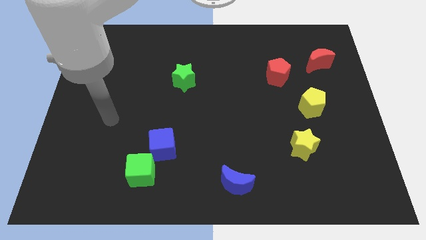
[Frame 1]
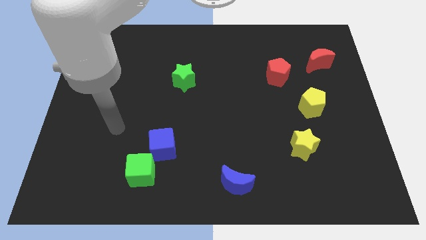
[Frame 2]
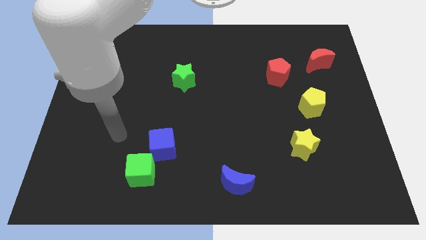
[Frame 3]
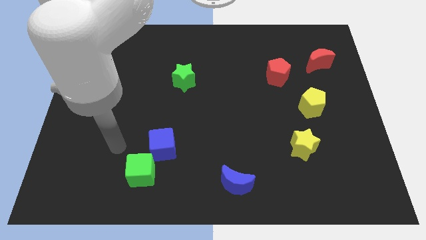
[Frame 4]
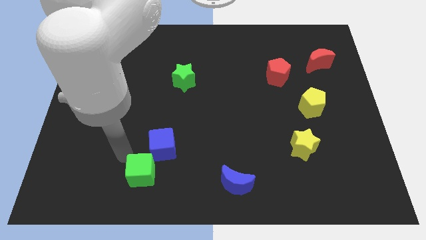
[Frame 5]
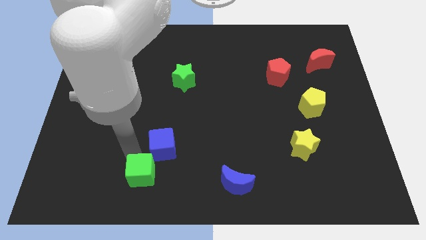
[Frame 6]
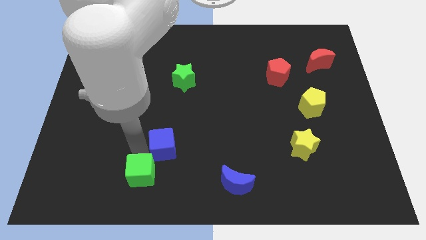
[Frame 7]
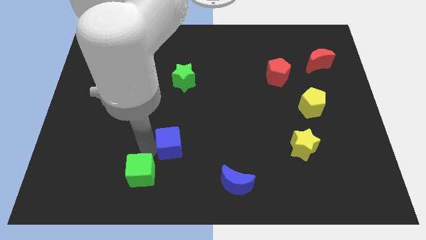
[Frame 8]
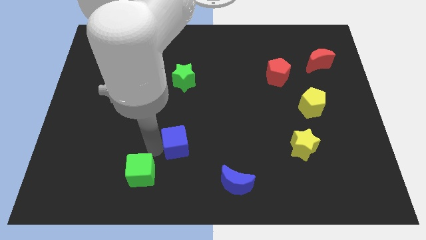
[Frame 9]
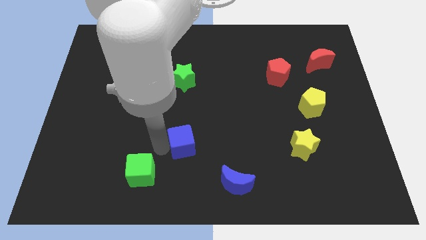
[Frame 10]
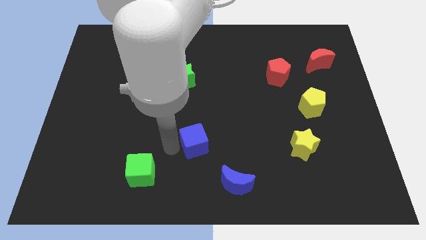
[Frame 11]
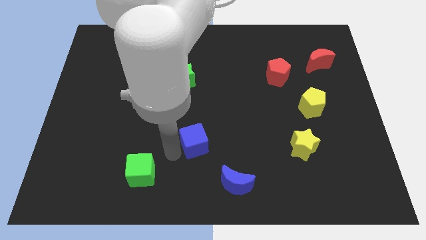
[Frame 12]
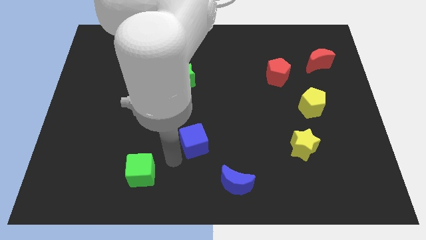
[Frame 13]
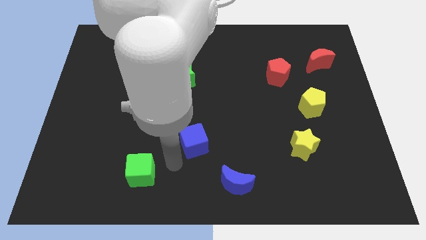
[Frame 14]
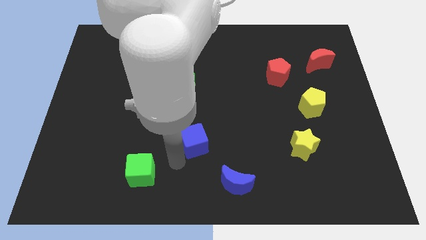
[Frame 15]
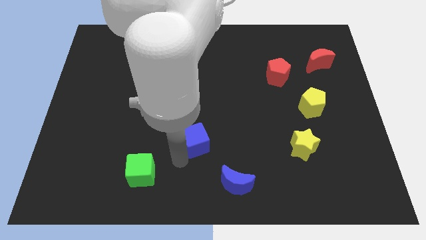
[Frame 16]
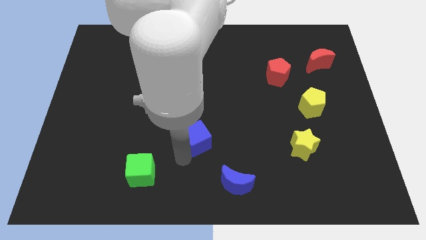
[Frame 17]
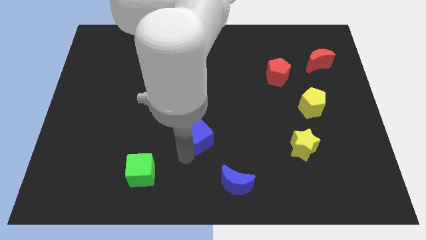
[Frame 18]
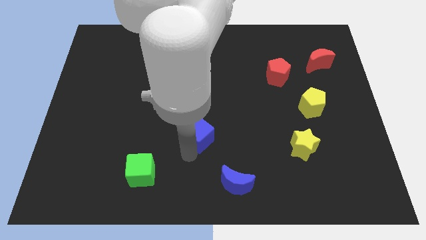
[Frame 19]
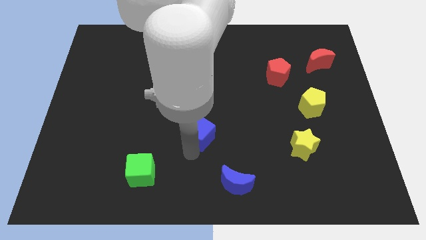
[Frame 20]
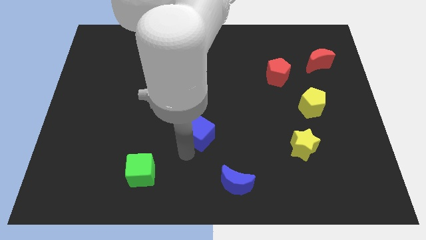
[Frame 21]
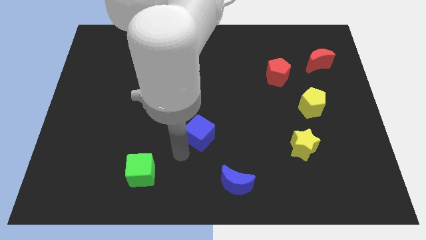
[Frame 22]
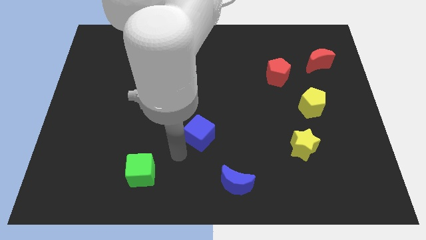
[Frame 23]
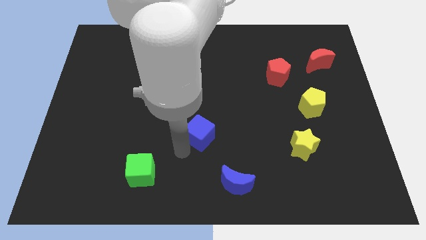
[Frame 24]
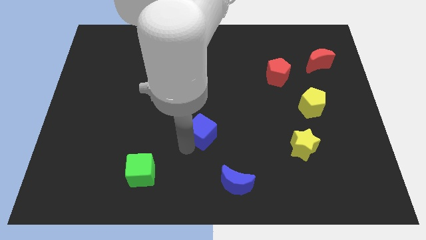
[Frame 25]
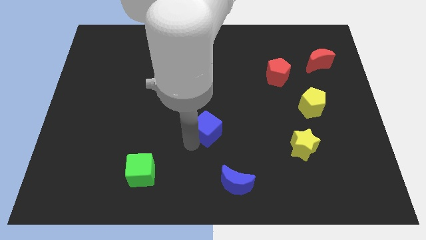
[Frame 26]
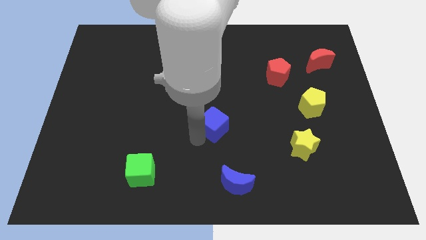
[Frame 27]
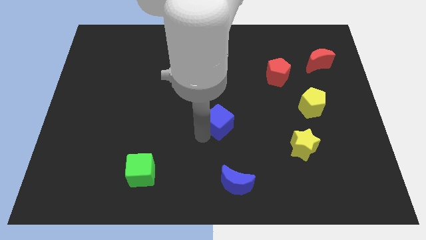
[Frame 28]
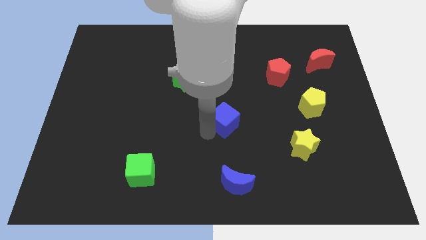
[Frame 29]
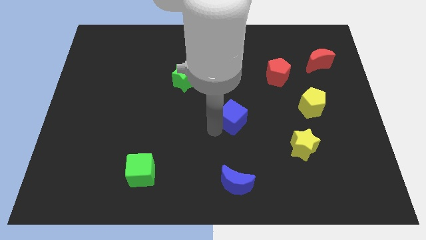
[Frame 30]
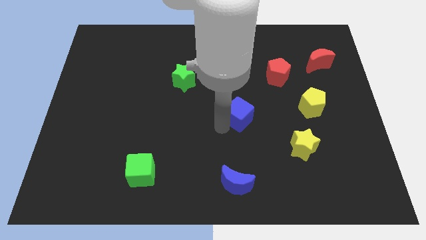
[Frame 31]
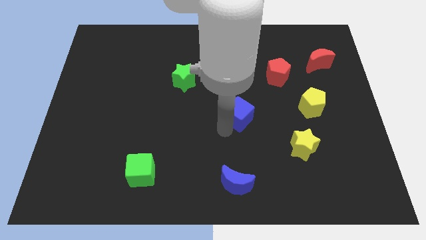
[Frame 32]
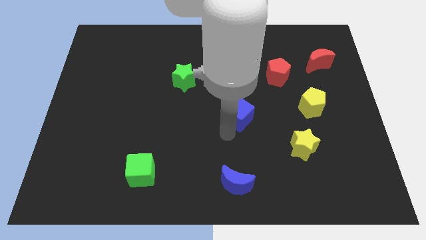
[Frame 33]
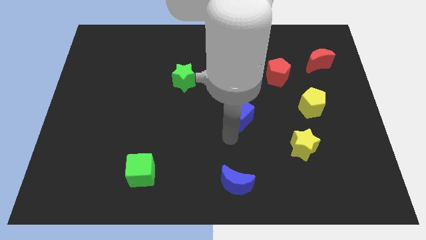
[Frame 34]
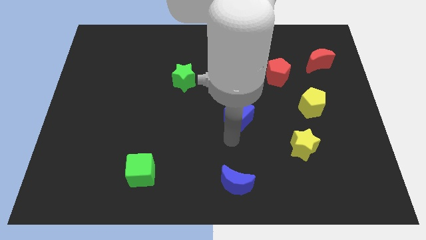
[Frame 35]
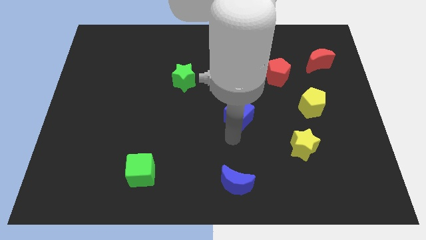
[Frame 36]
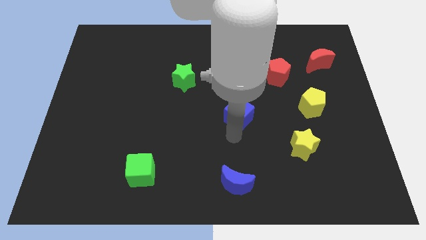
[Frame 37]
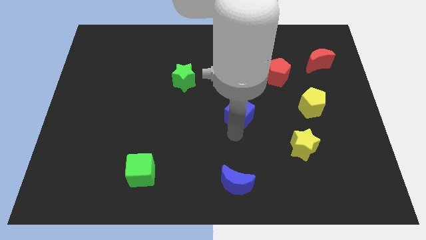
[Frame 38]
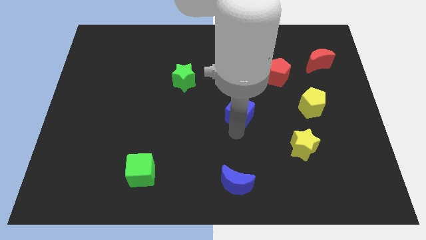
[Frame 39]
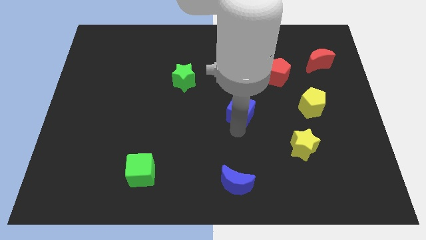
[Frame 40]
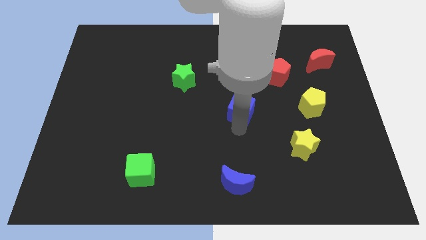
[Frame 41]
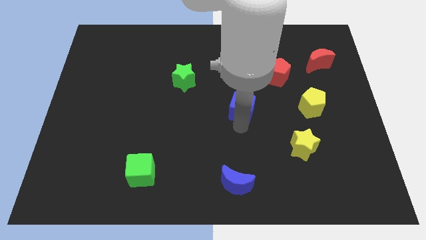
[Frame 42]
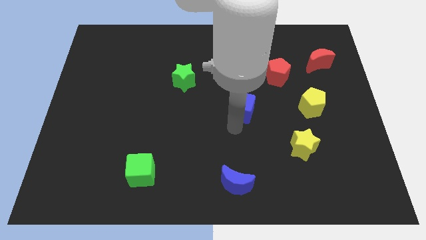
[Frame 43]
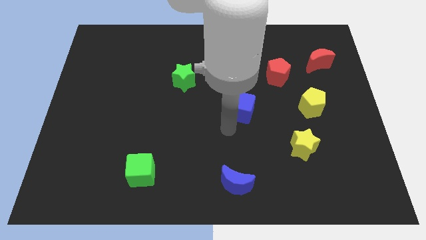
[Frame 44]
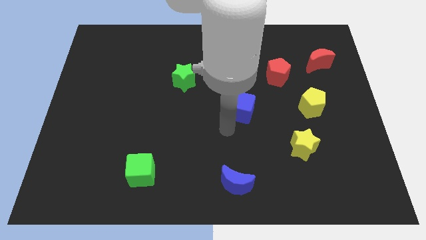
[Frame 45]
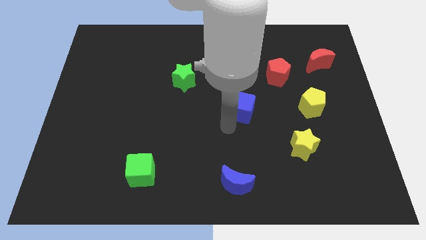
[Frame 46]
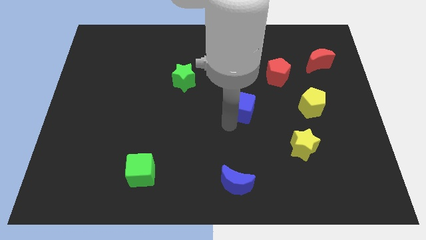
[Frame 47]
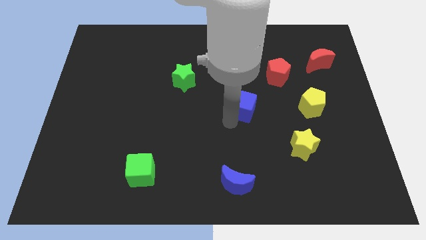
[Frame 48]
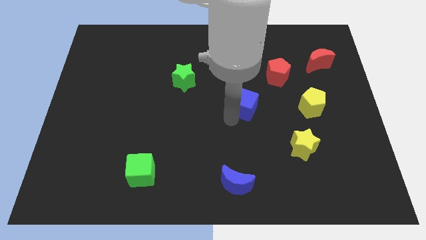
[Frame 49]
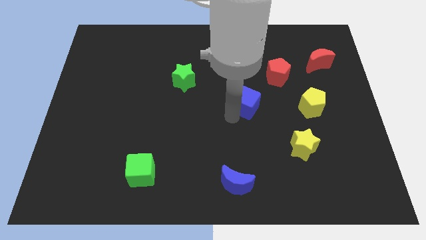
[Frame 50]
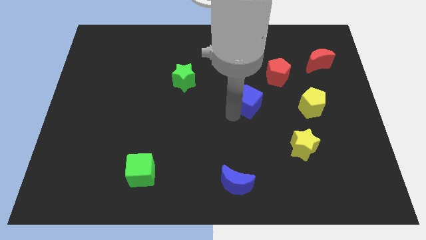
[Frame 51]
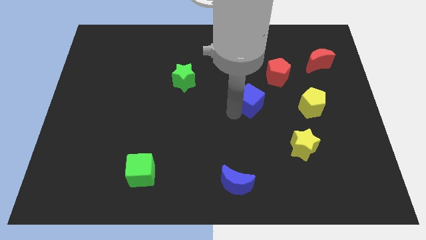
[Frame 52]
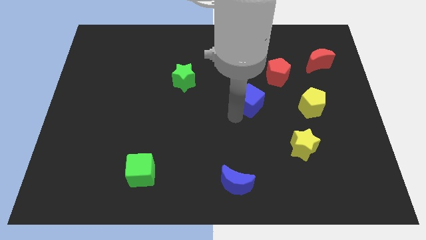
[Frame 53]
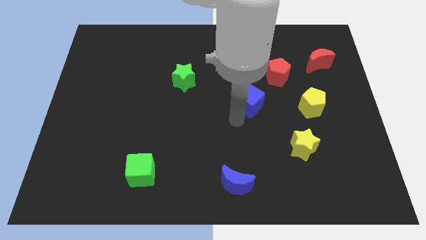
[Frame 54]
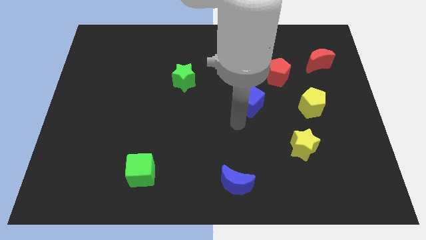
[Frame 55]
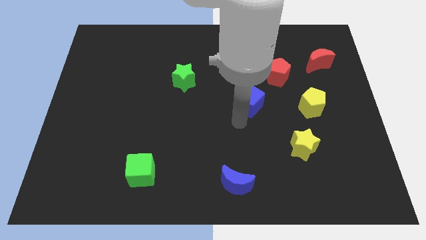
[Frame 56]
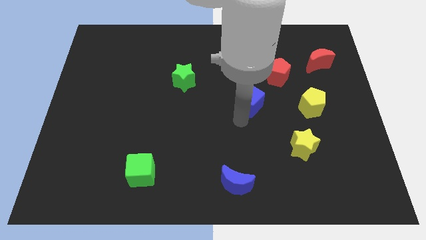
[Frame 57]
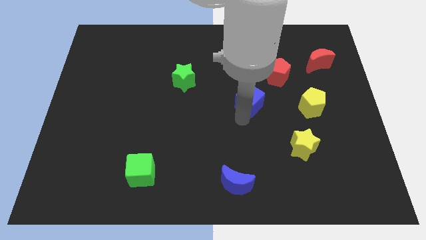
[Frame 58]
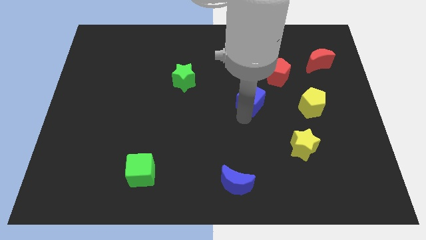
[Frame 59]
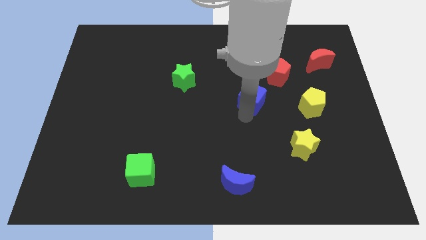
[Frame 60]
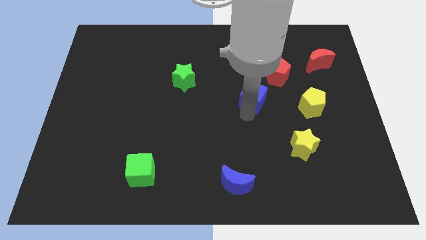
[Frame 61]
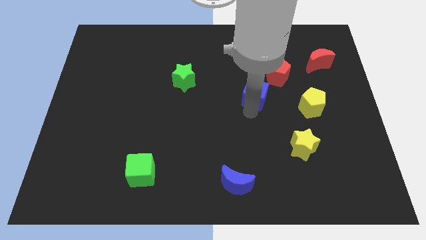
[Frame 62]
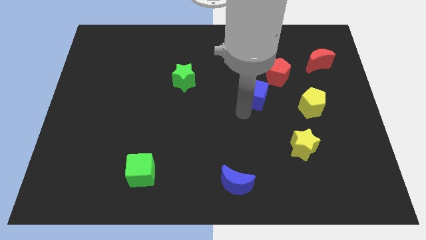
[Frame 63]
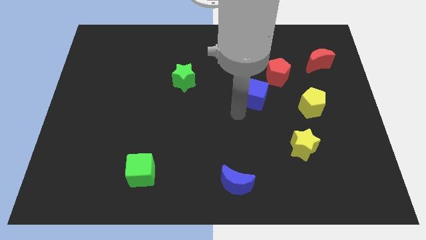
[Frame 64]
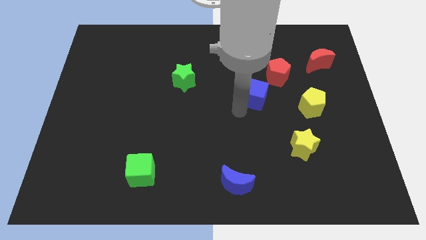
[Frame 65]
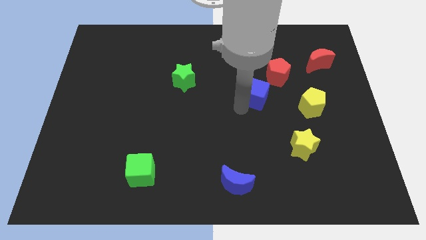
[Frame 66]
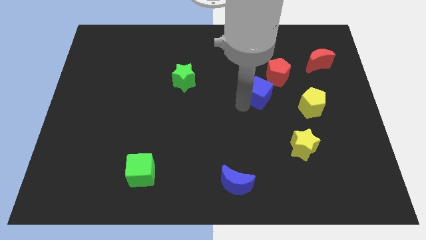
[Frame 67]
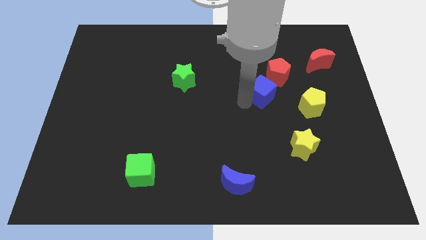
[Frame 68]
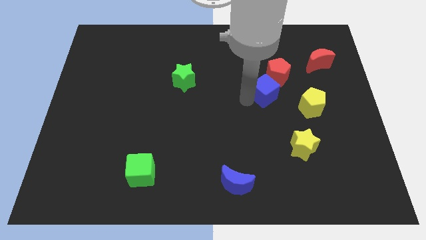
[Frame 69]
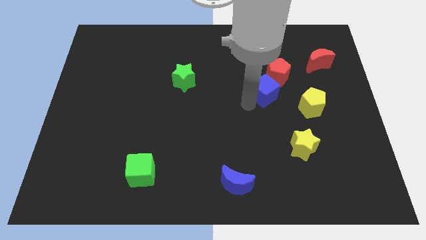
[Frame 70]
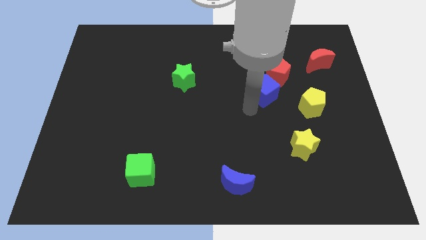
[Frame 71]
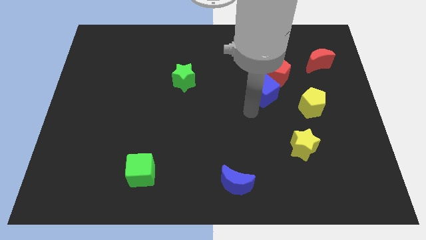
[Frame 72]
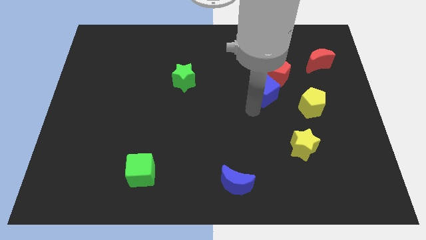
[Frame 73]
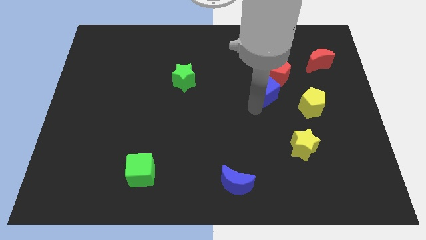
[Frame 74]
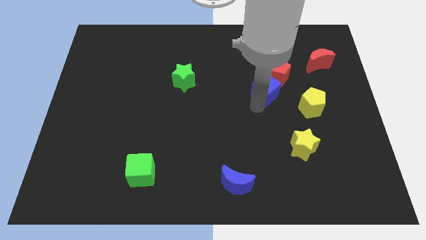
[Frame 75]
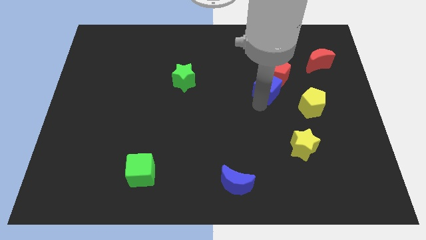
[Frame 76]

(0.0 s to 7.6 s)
move the blue cube towards the red pentagon
